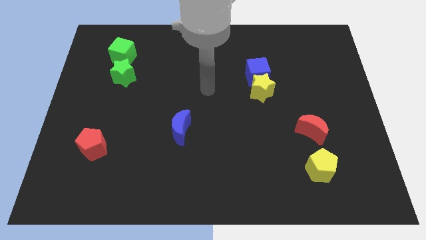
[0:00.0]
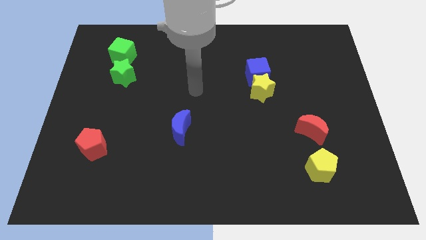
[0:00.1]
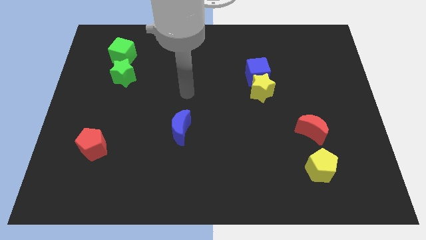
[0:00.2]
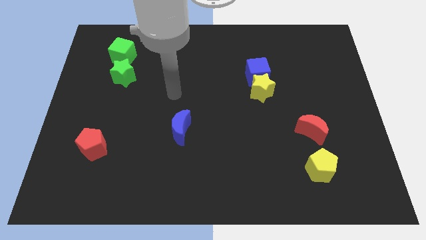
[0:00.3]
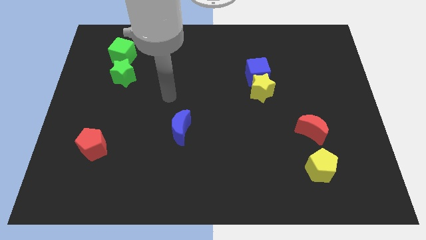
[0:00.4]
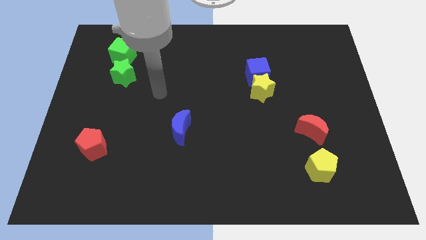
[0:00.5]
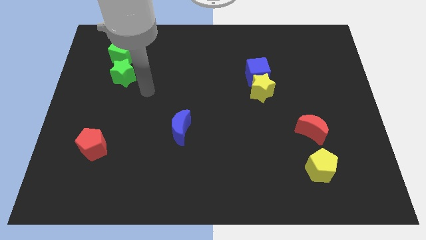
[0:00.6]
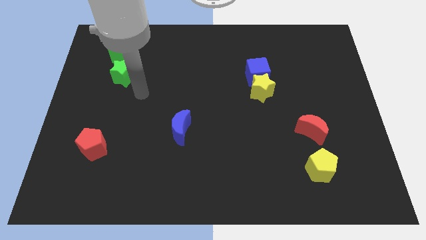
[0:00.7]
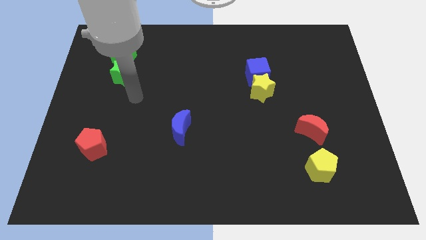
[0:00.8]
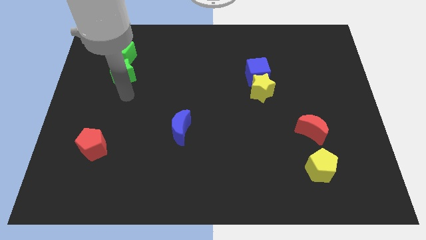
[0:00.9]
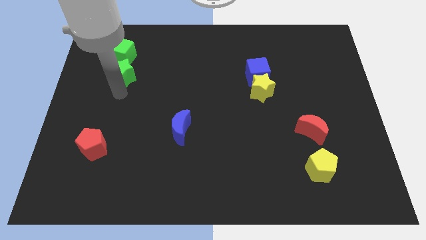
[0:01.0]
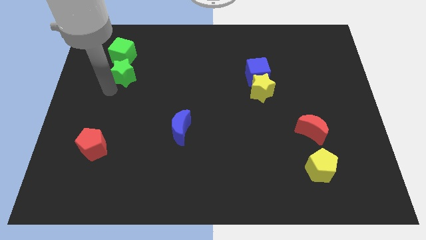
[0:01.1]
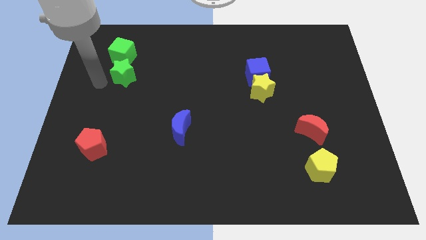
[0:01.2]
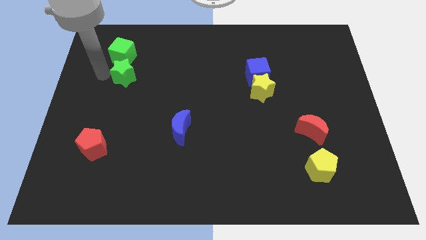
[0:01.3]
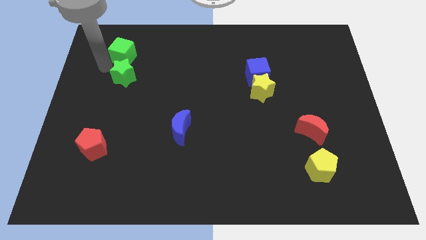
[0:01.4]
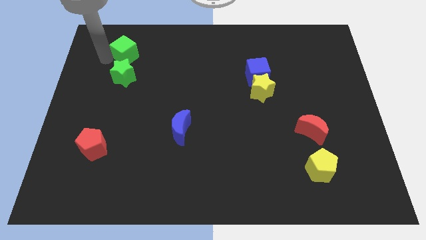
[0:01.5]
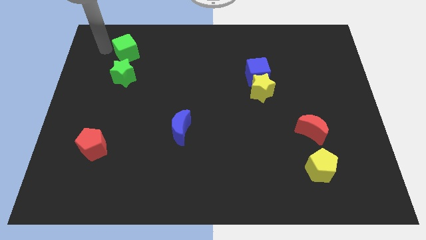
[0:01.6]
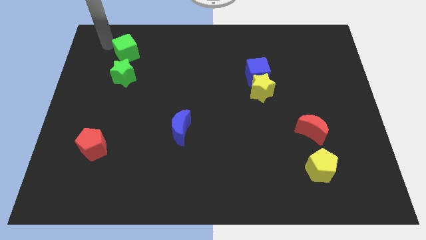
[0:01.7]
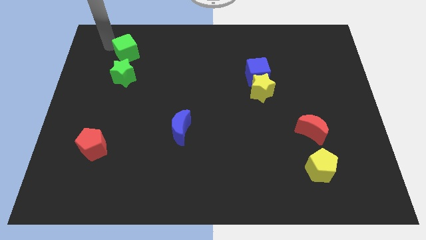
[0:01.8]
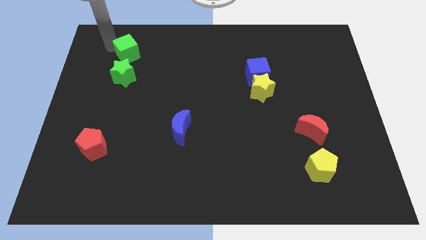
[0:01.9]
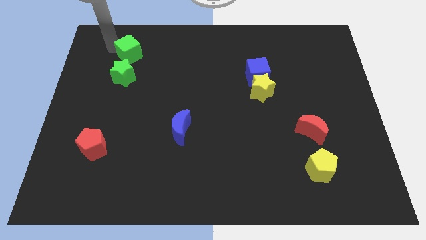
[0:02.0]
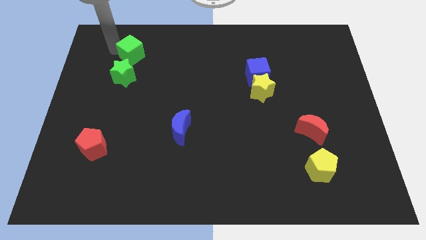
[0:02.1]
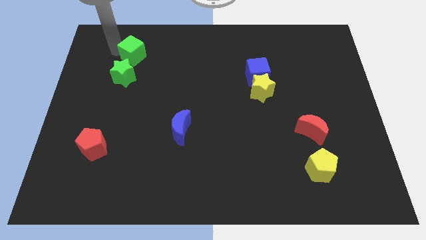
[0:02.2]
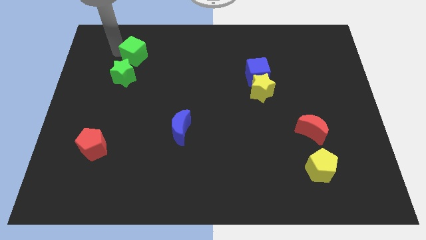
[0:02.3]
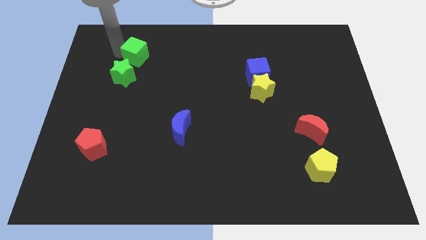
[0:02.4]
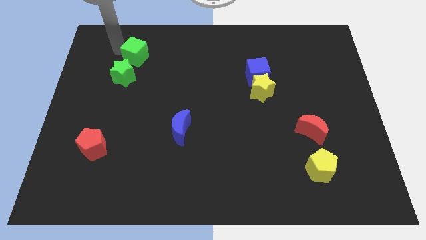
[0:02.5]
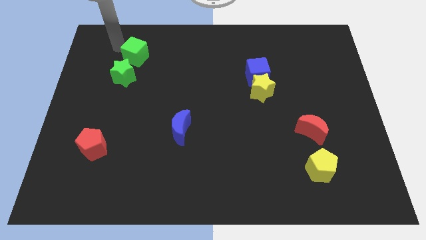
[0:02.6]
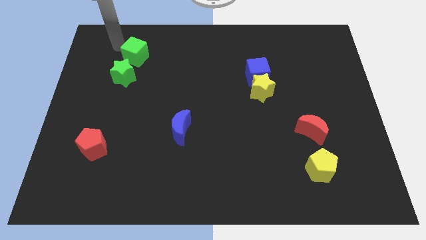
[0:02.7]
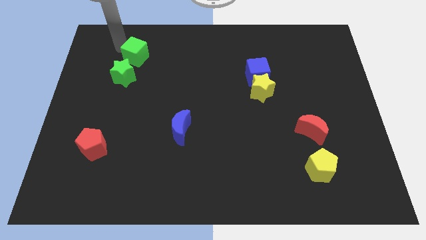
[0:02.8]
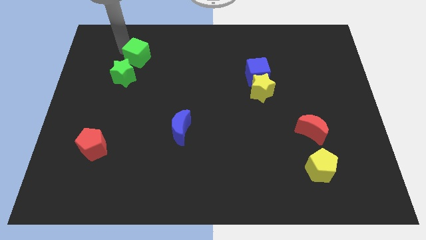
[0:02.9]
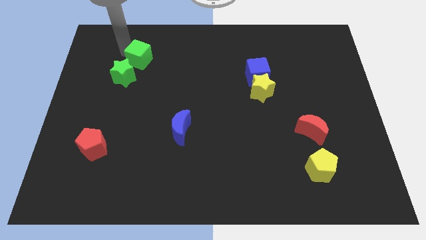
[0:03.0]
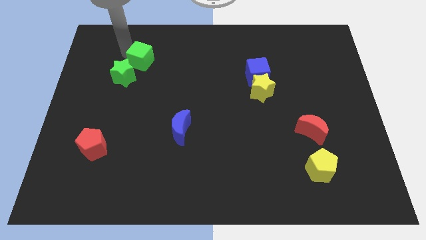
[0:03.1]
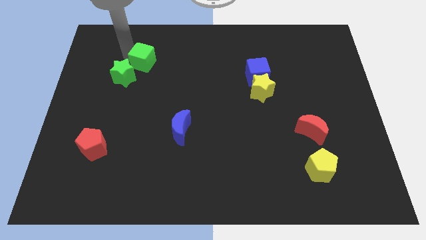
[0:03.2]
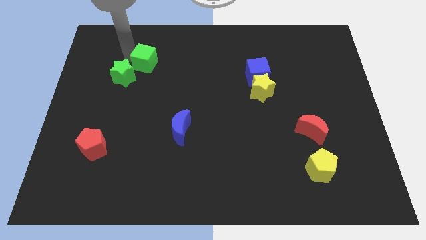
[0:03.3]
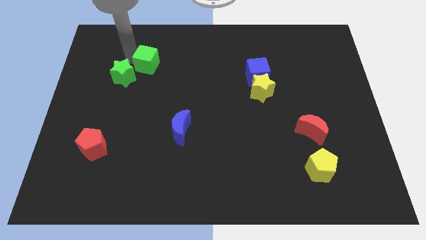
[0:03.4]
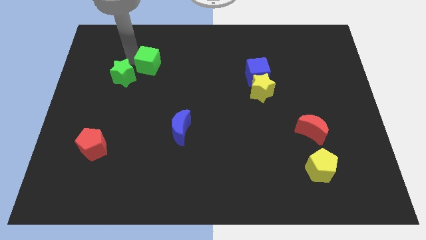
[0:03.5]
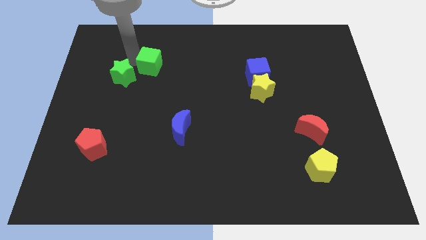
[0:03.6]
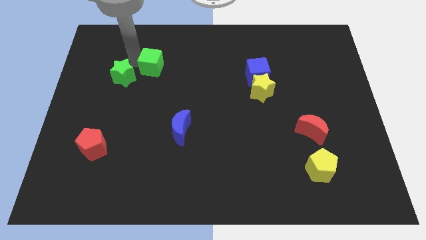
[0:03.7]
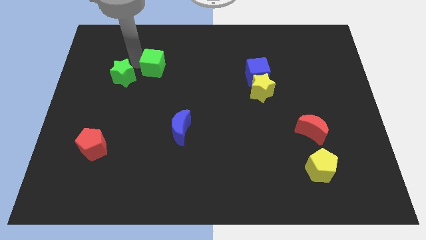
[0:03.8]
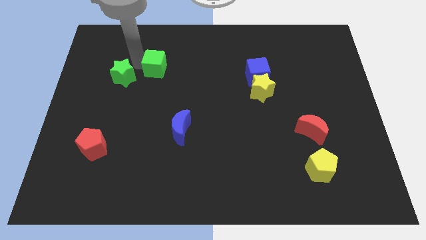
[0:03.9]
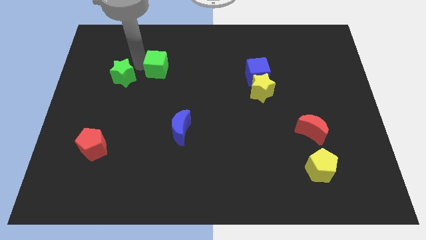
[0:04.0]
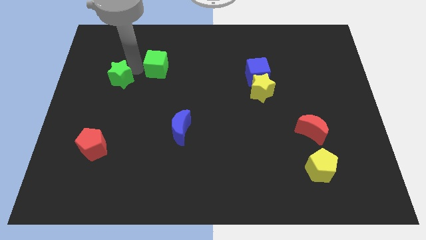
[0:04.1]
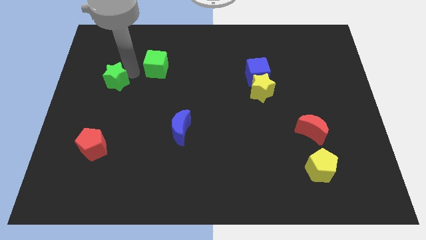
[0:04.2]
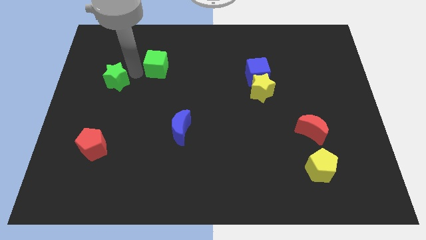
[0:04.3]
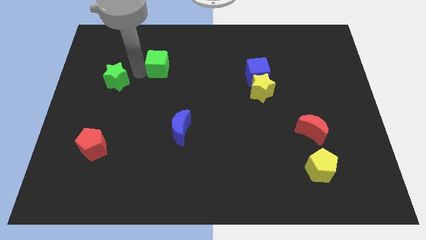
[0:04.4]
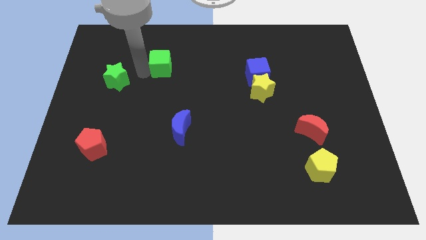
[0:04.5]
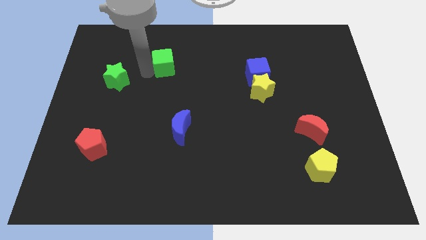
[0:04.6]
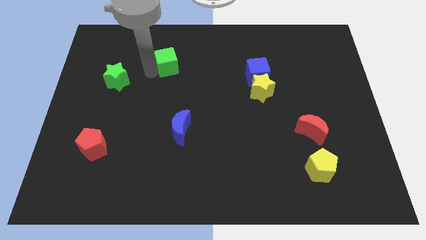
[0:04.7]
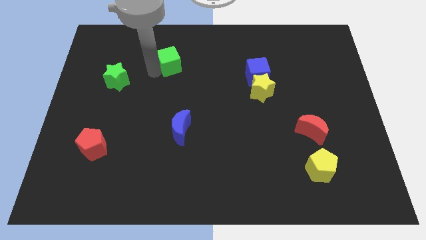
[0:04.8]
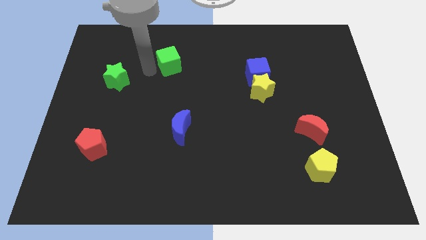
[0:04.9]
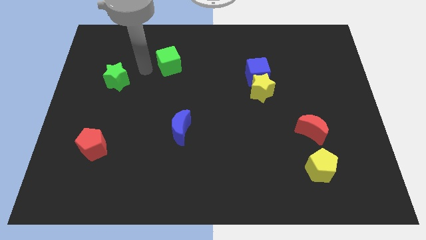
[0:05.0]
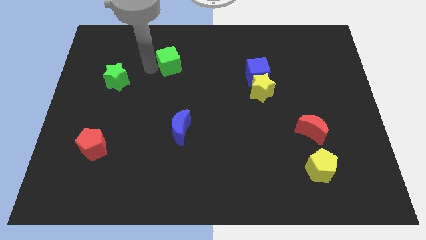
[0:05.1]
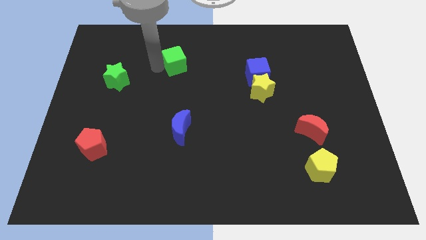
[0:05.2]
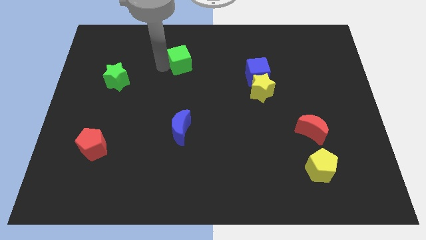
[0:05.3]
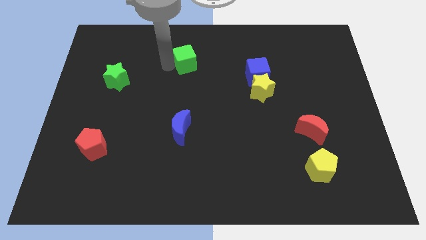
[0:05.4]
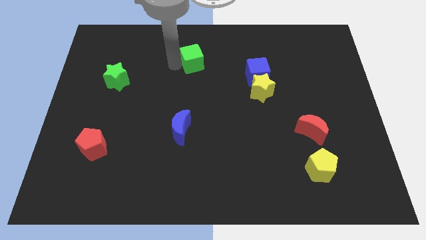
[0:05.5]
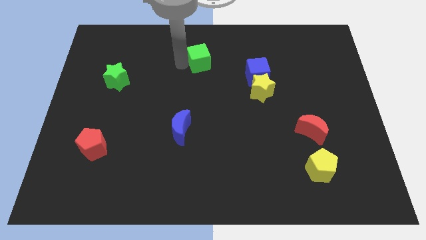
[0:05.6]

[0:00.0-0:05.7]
move the green cube right

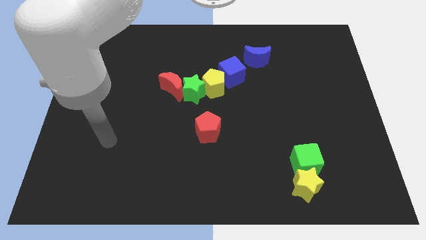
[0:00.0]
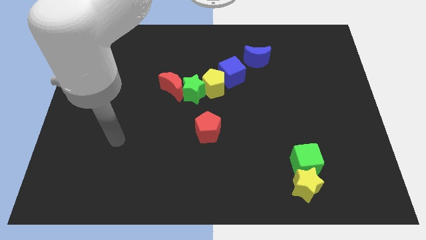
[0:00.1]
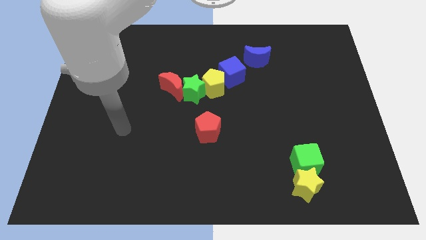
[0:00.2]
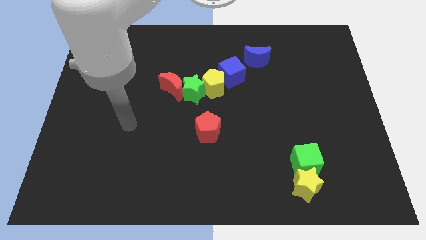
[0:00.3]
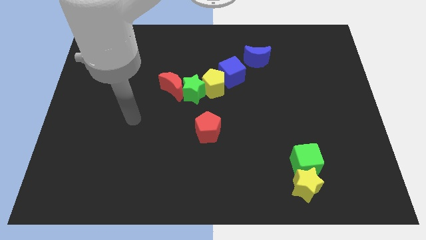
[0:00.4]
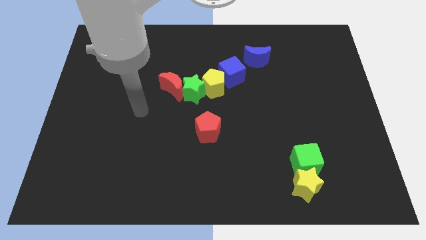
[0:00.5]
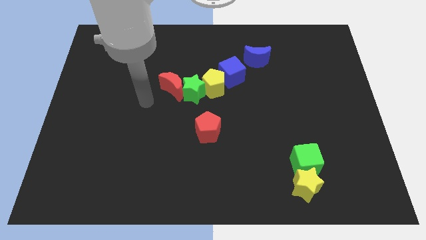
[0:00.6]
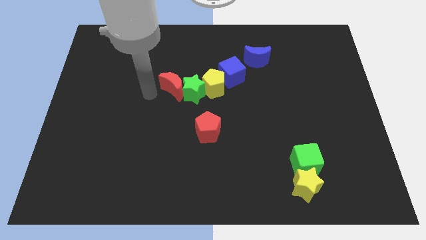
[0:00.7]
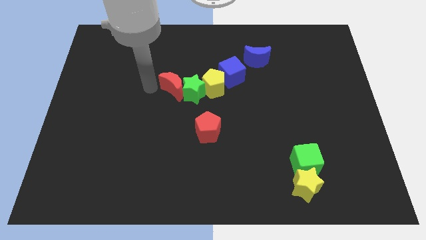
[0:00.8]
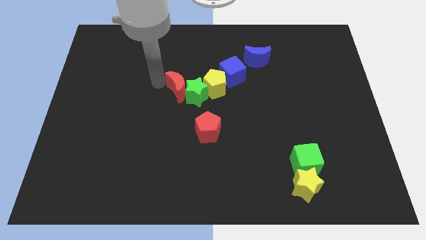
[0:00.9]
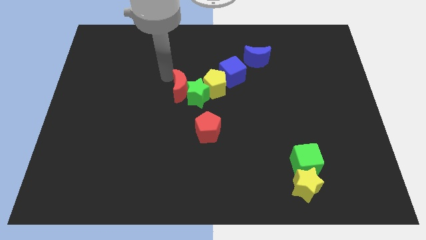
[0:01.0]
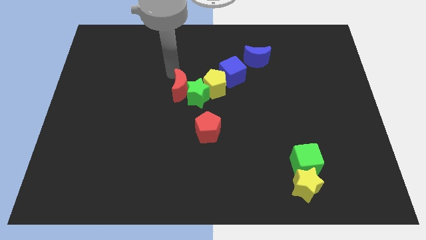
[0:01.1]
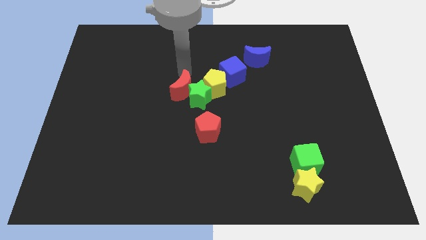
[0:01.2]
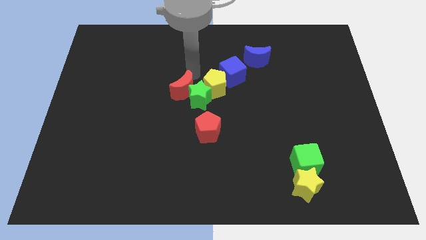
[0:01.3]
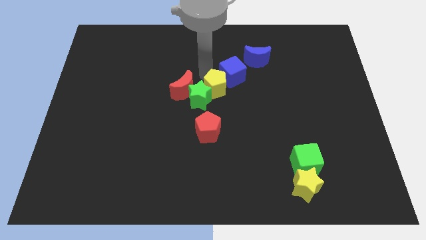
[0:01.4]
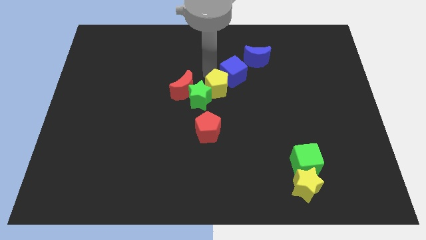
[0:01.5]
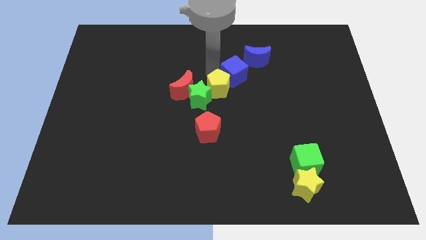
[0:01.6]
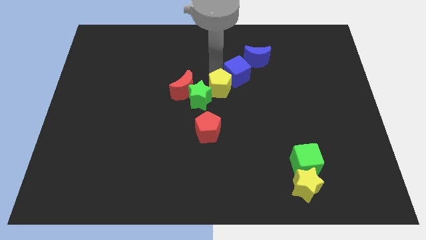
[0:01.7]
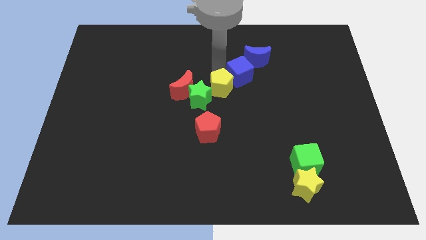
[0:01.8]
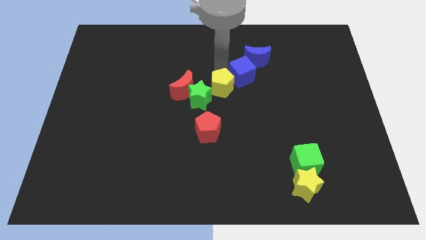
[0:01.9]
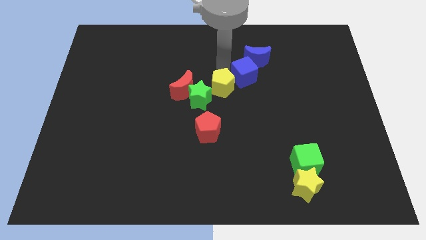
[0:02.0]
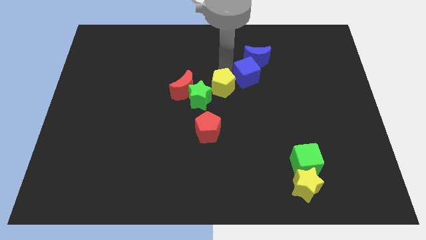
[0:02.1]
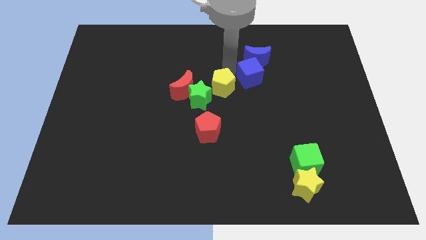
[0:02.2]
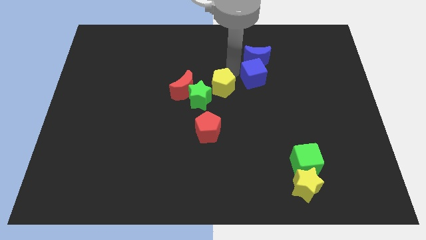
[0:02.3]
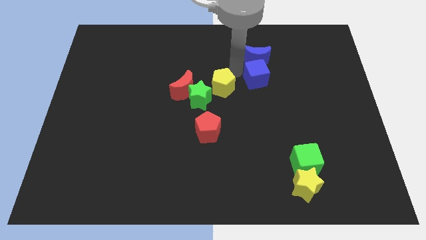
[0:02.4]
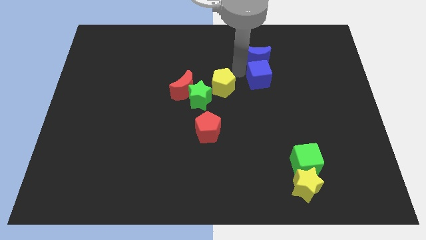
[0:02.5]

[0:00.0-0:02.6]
push the blue cube to the right slightly

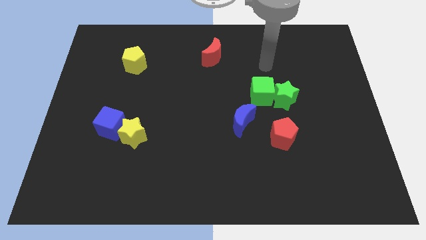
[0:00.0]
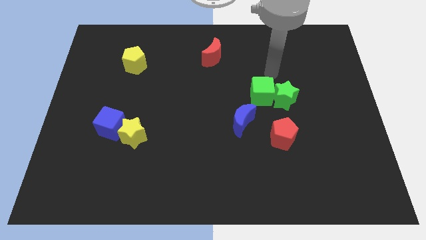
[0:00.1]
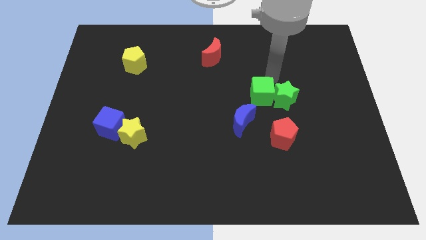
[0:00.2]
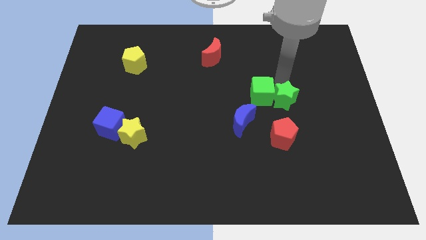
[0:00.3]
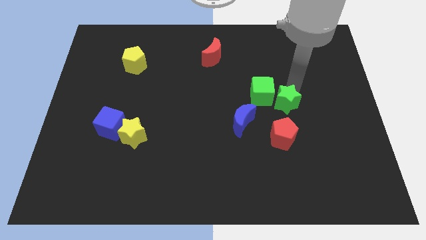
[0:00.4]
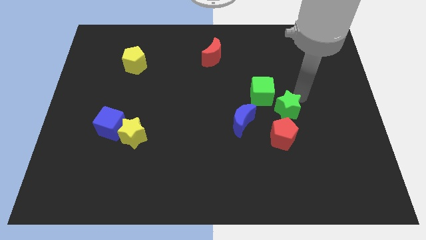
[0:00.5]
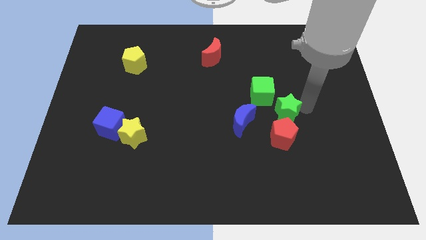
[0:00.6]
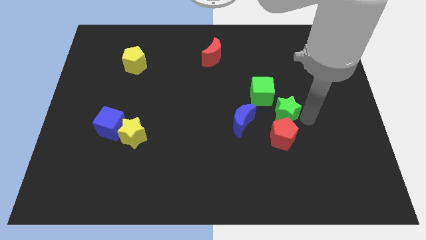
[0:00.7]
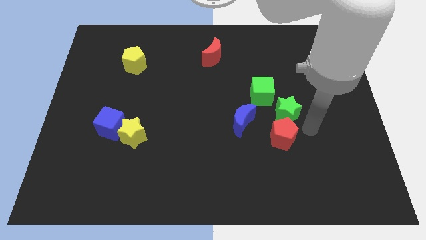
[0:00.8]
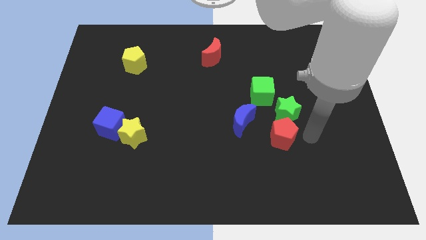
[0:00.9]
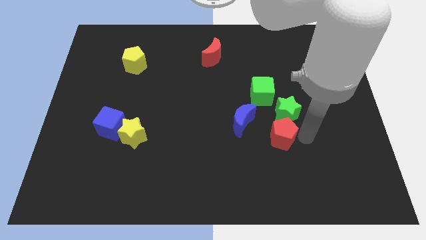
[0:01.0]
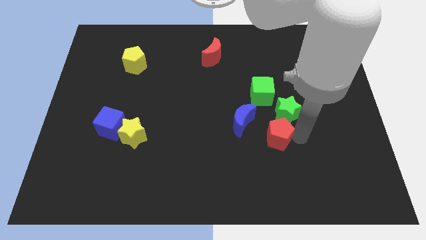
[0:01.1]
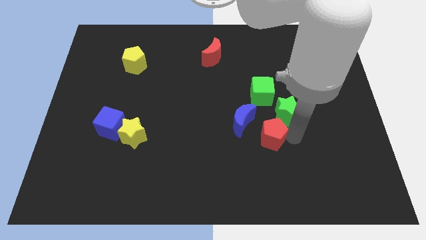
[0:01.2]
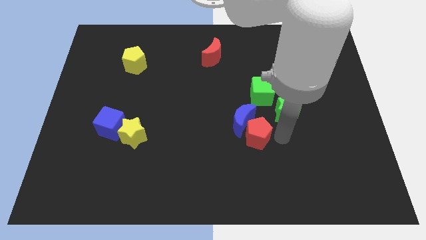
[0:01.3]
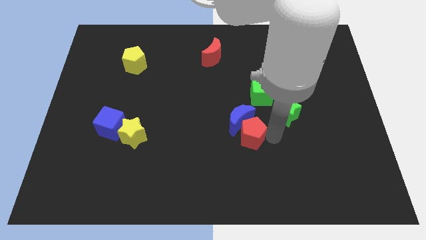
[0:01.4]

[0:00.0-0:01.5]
slightly move the red pentagon to the left
